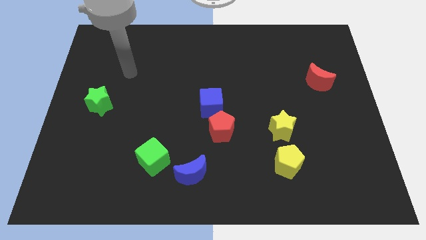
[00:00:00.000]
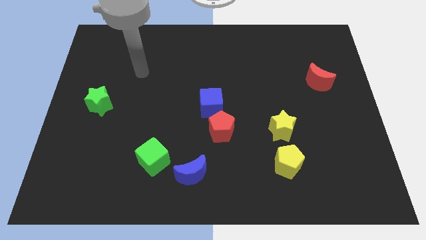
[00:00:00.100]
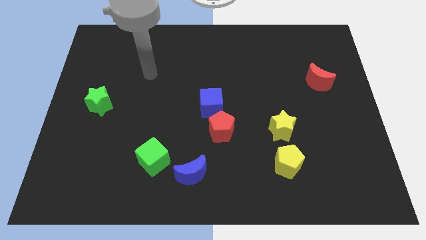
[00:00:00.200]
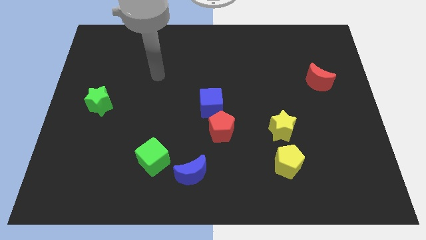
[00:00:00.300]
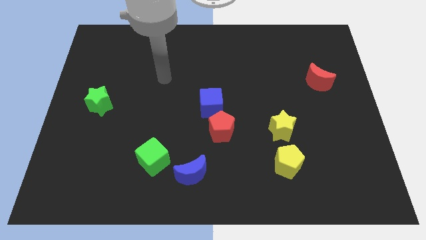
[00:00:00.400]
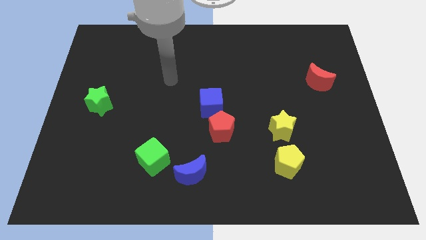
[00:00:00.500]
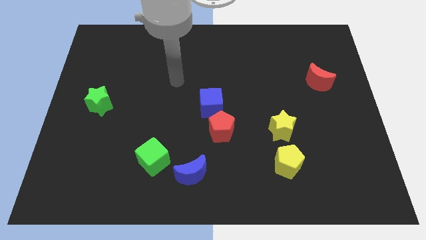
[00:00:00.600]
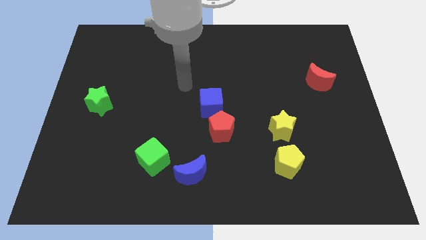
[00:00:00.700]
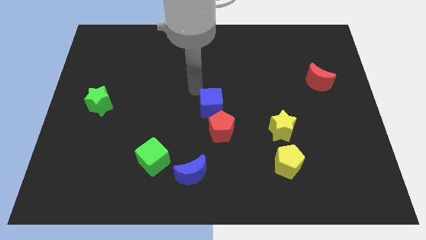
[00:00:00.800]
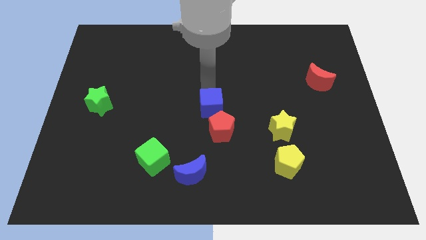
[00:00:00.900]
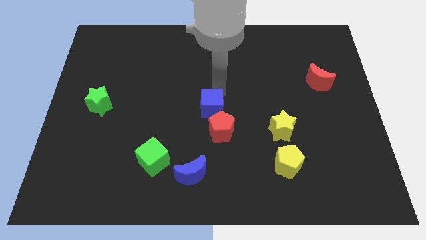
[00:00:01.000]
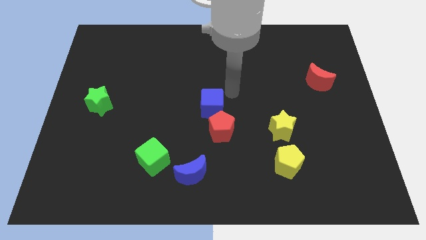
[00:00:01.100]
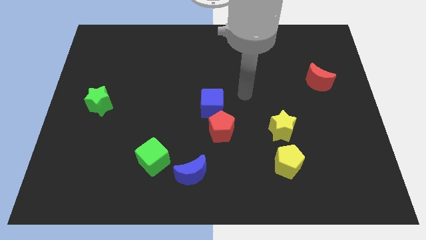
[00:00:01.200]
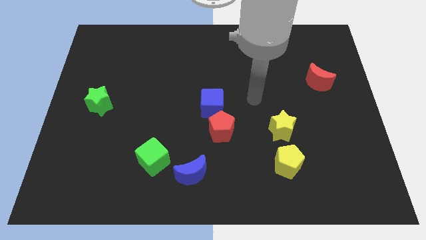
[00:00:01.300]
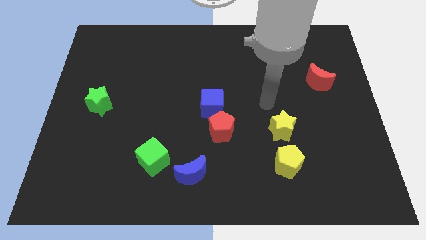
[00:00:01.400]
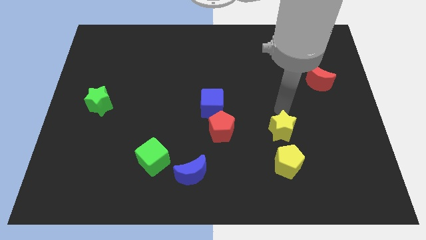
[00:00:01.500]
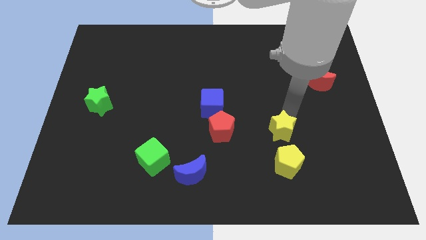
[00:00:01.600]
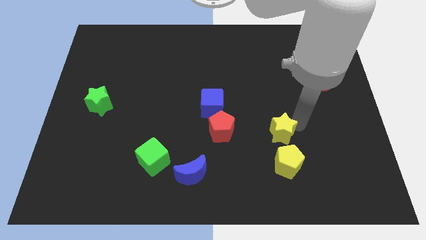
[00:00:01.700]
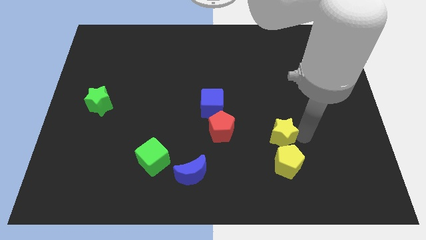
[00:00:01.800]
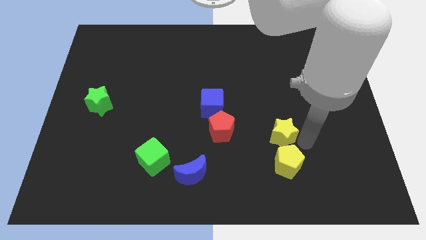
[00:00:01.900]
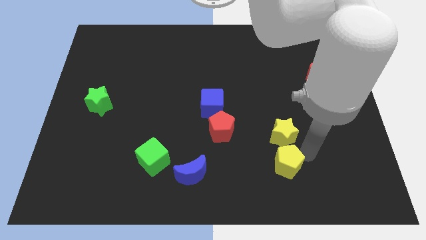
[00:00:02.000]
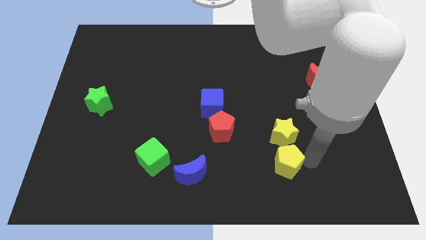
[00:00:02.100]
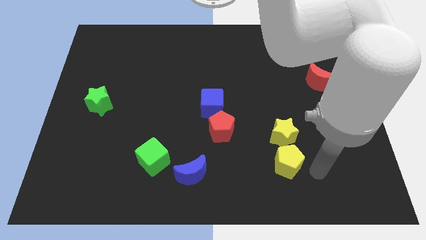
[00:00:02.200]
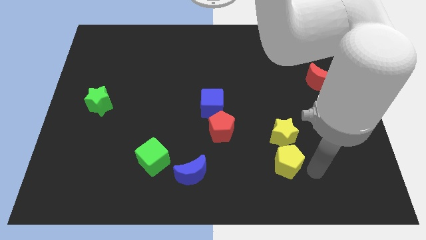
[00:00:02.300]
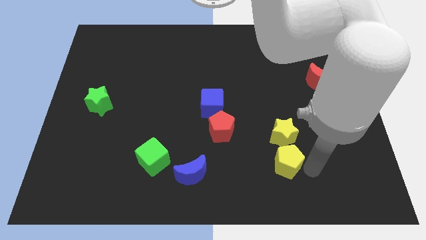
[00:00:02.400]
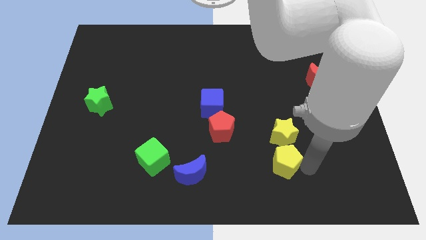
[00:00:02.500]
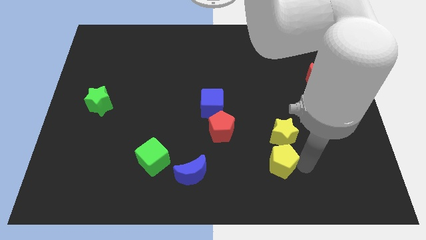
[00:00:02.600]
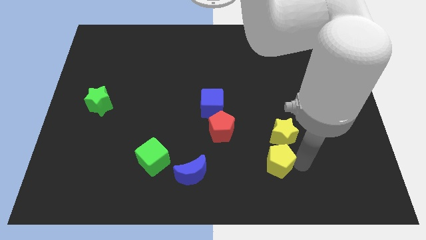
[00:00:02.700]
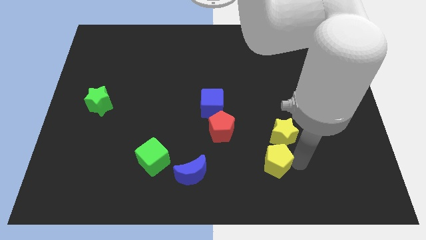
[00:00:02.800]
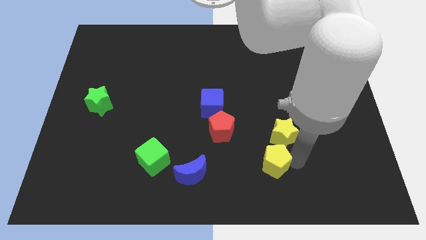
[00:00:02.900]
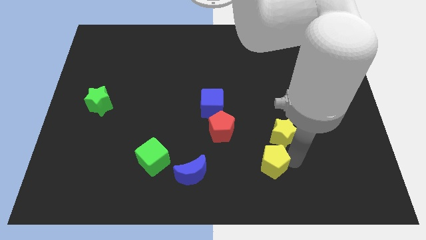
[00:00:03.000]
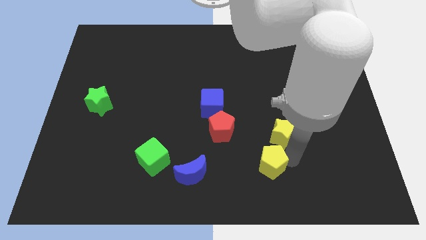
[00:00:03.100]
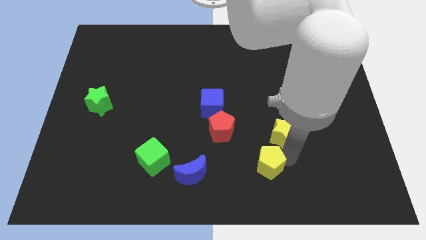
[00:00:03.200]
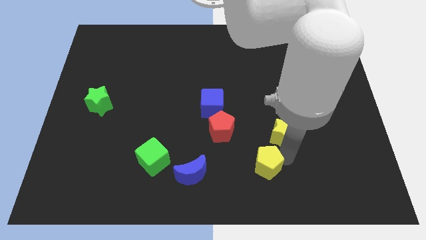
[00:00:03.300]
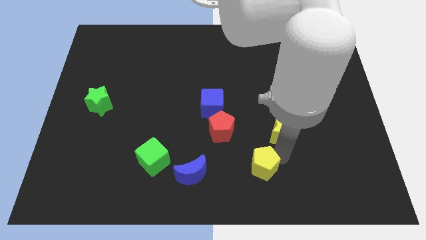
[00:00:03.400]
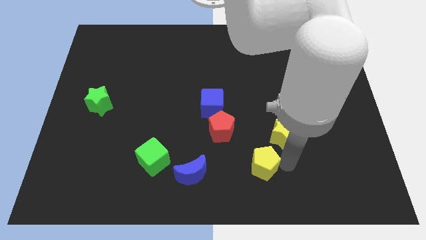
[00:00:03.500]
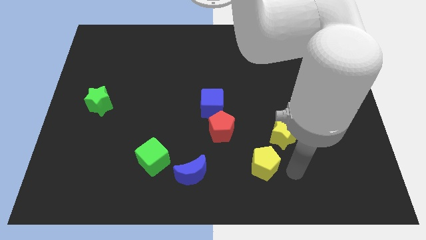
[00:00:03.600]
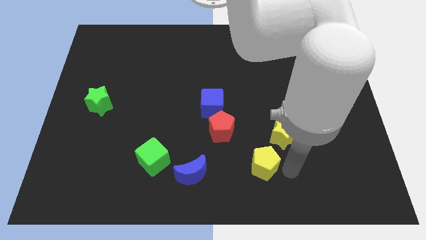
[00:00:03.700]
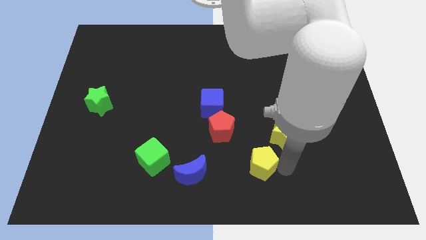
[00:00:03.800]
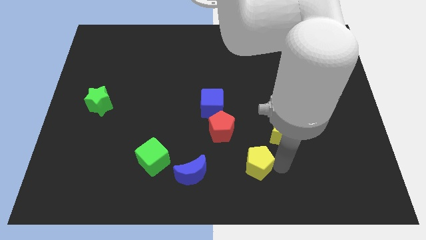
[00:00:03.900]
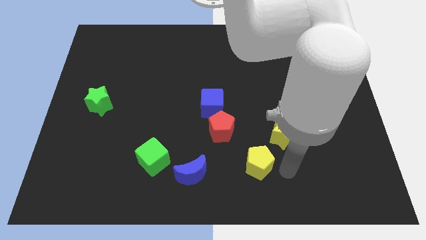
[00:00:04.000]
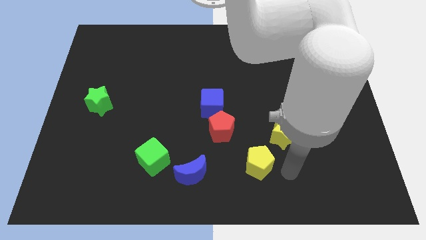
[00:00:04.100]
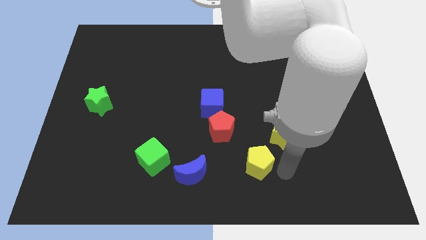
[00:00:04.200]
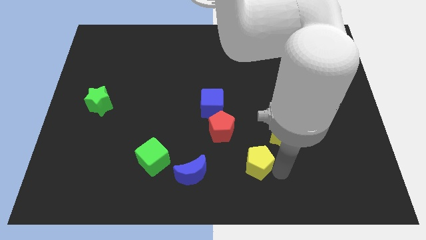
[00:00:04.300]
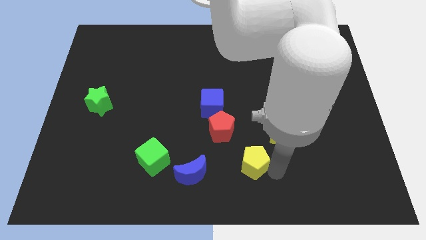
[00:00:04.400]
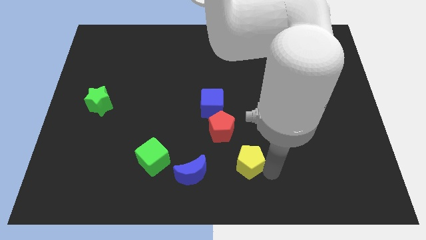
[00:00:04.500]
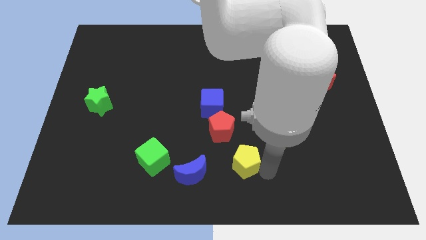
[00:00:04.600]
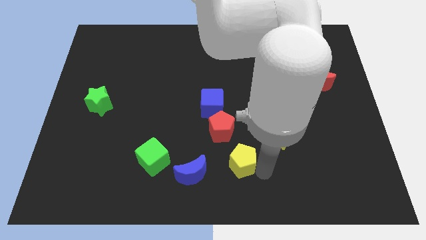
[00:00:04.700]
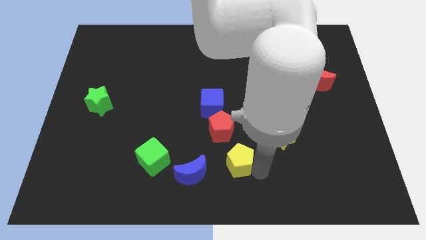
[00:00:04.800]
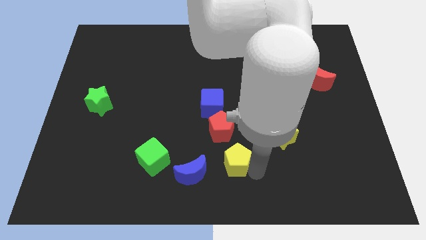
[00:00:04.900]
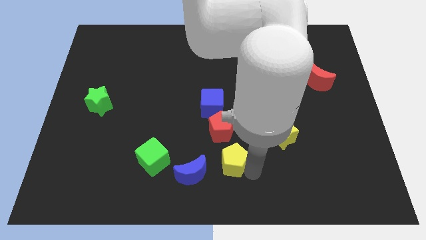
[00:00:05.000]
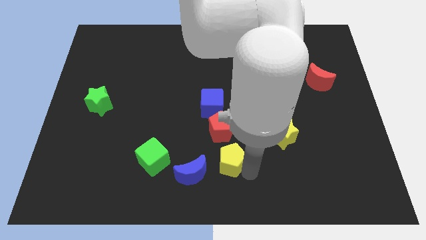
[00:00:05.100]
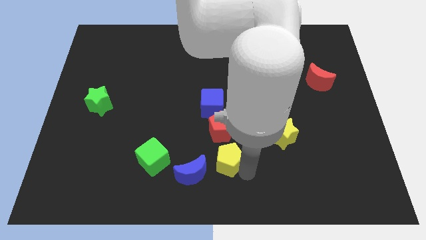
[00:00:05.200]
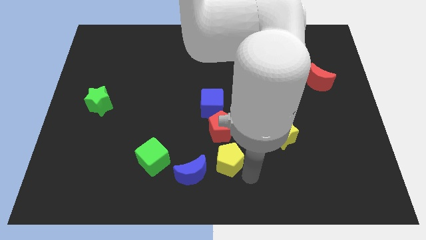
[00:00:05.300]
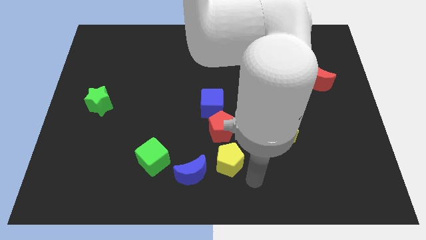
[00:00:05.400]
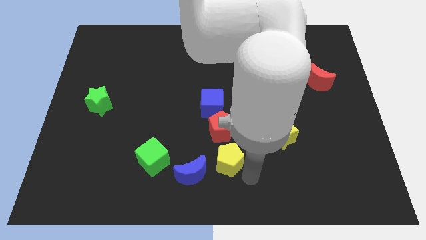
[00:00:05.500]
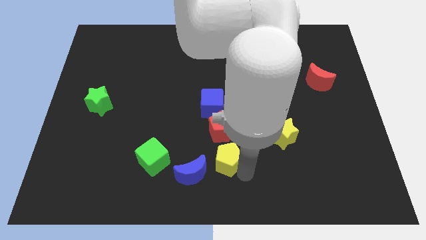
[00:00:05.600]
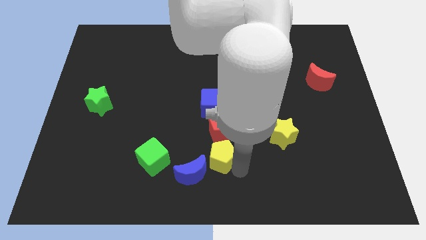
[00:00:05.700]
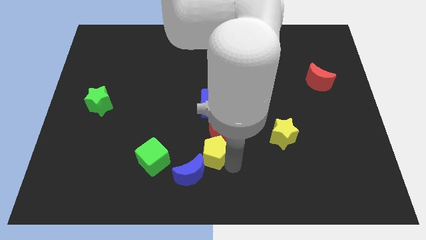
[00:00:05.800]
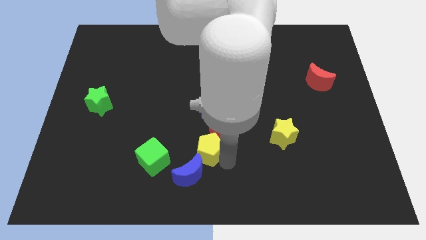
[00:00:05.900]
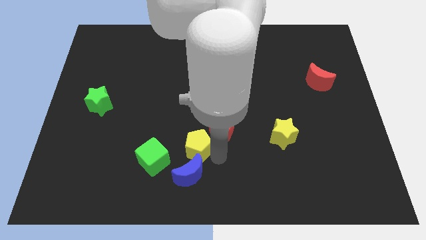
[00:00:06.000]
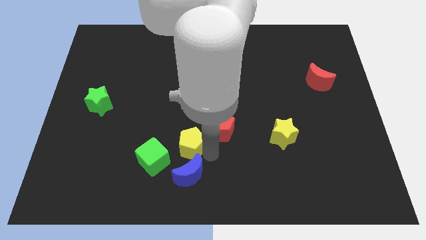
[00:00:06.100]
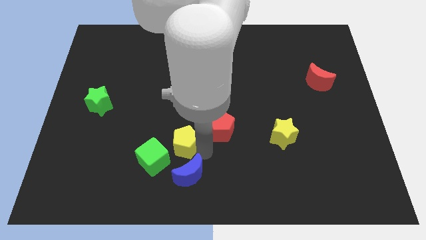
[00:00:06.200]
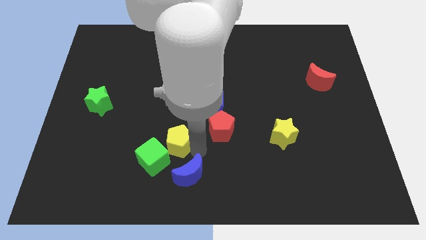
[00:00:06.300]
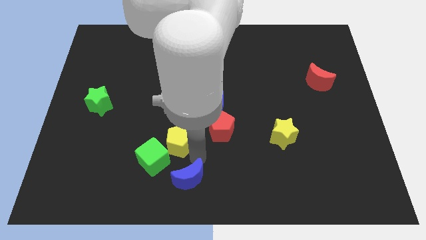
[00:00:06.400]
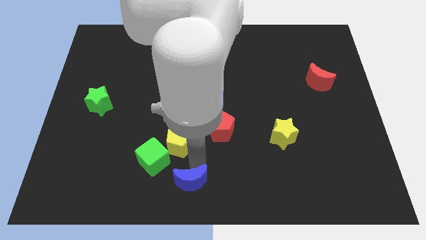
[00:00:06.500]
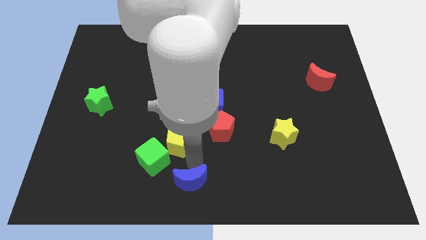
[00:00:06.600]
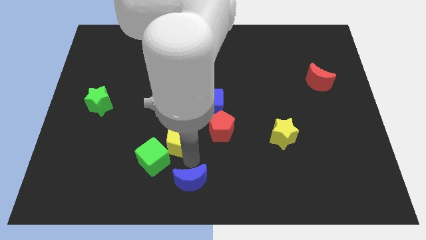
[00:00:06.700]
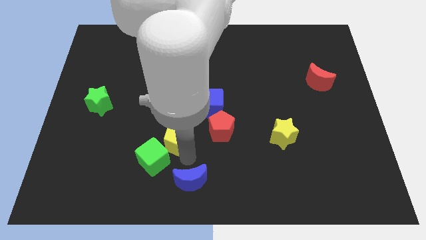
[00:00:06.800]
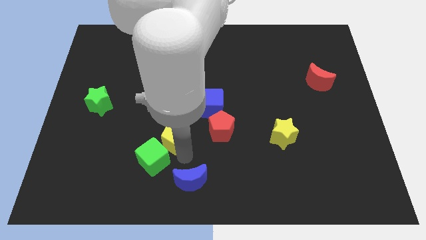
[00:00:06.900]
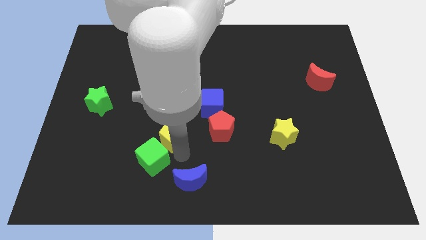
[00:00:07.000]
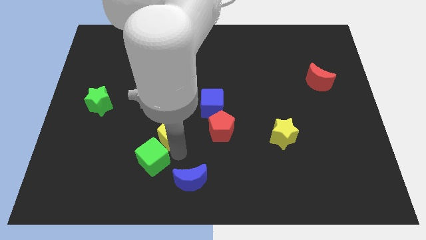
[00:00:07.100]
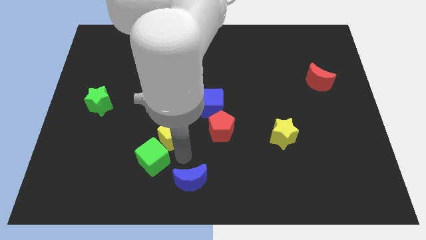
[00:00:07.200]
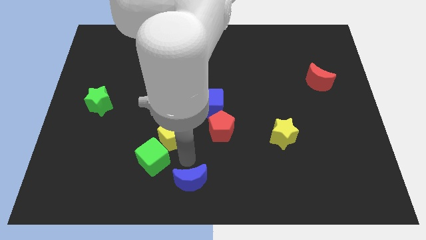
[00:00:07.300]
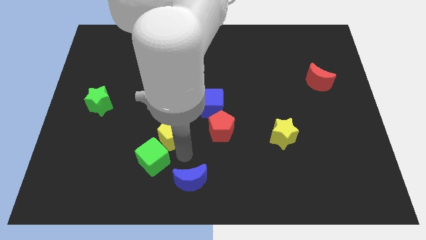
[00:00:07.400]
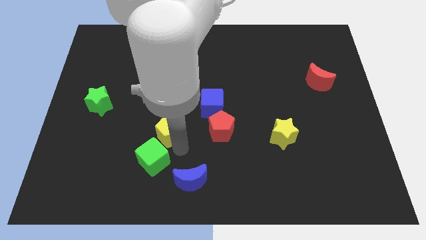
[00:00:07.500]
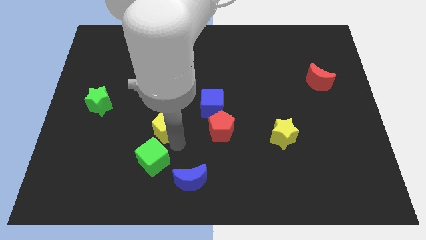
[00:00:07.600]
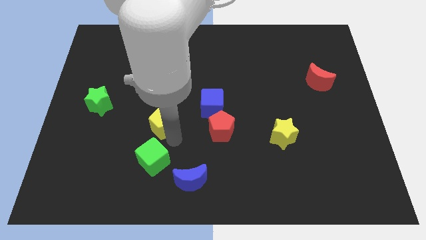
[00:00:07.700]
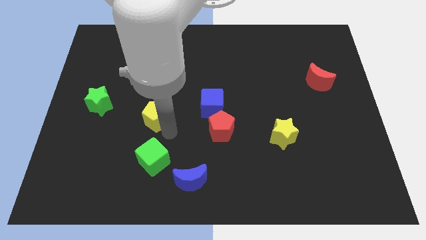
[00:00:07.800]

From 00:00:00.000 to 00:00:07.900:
put the yellow pentagon to the right side of the green star
